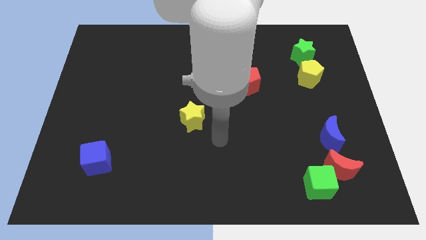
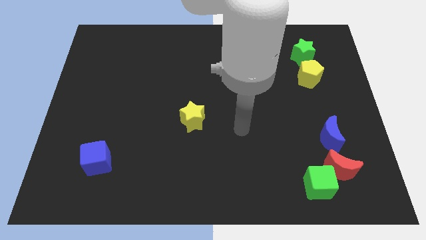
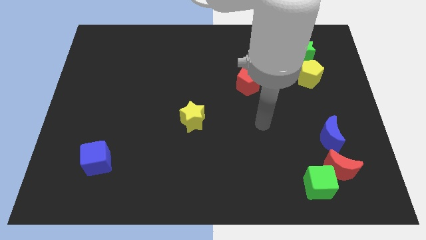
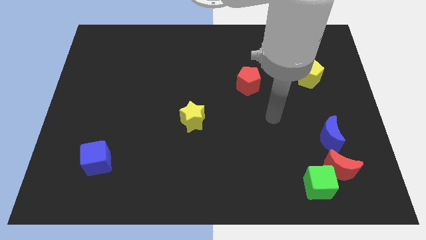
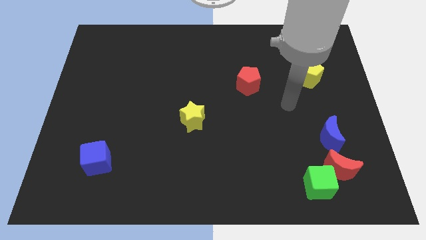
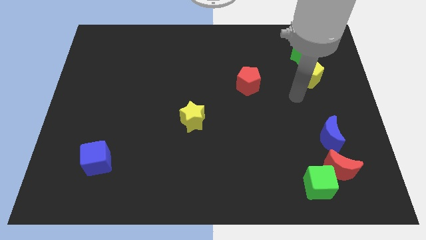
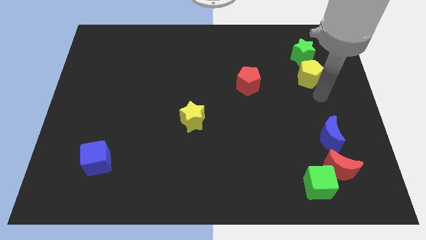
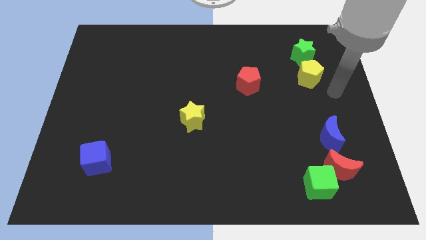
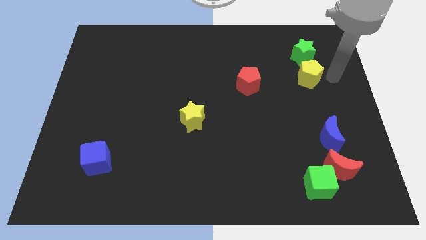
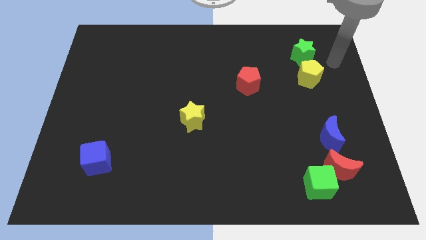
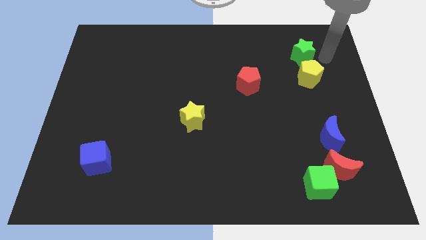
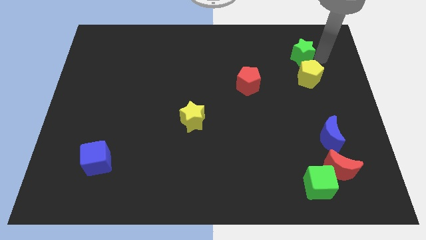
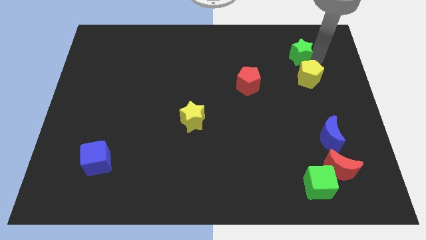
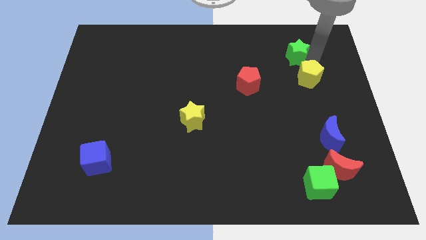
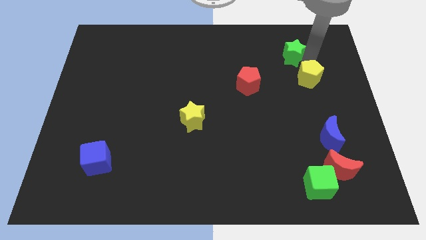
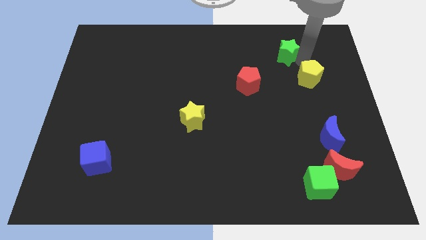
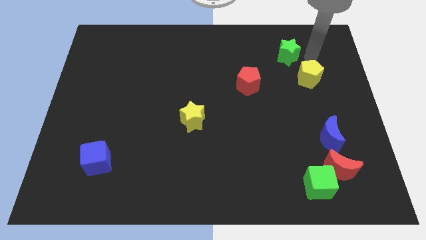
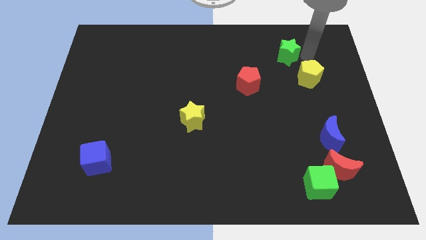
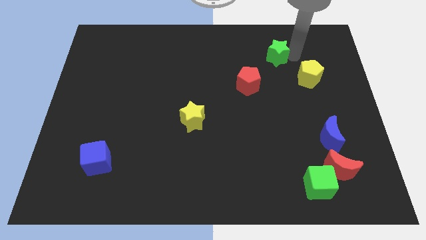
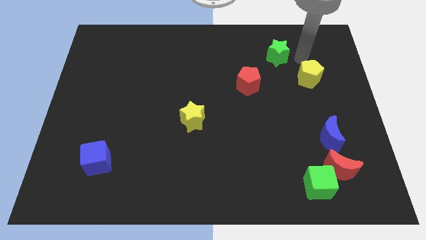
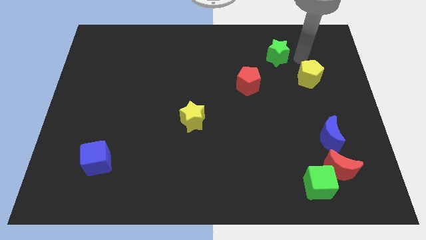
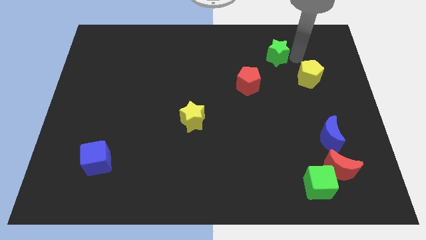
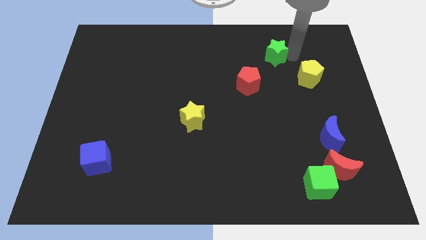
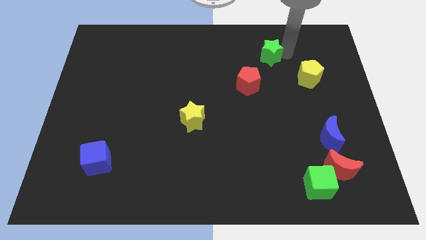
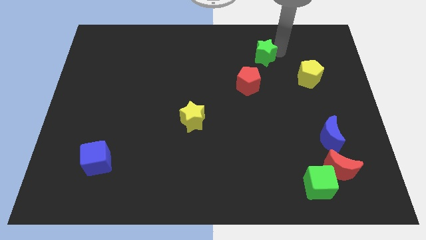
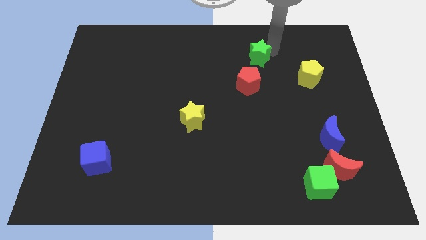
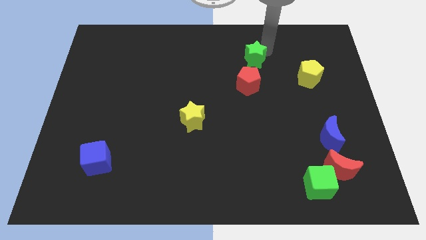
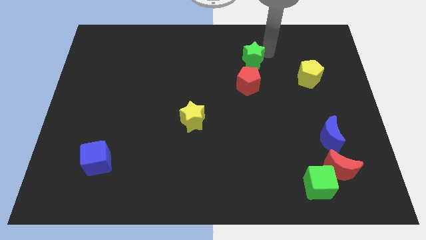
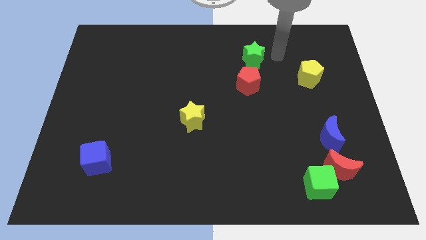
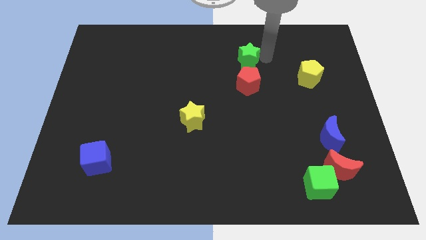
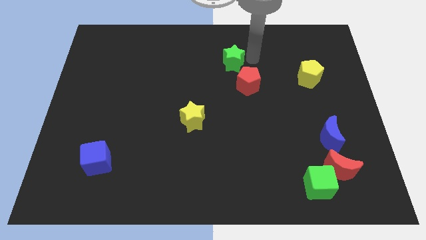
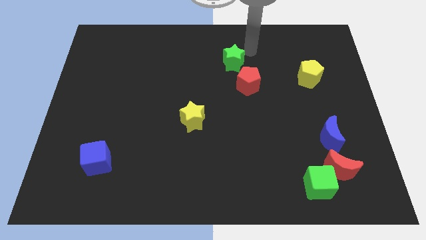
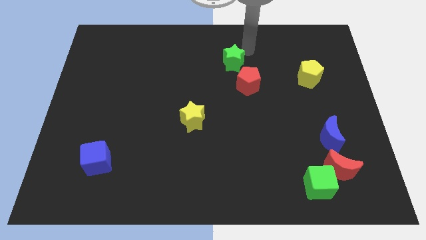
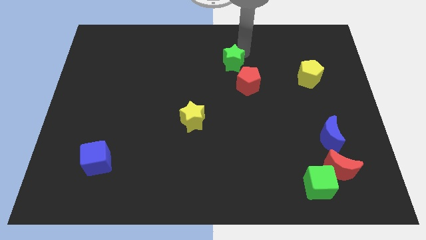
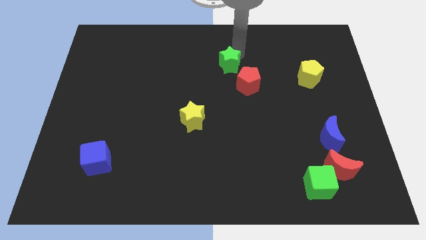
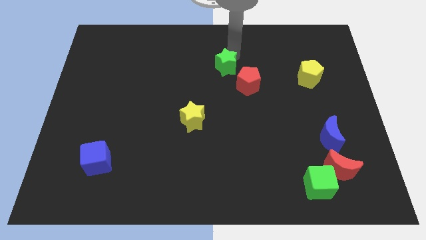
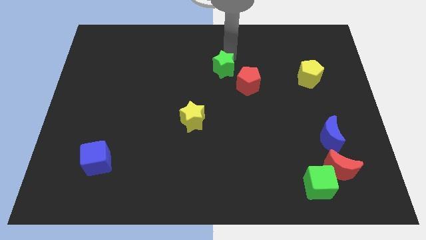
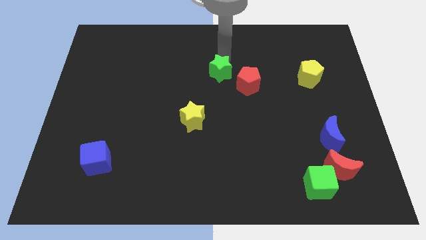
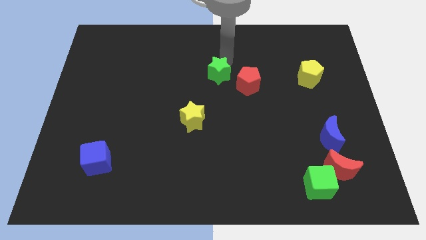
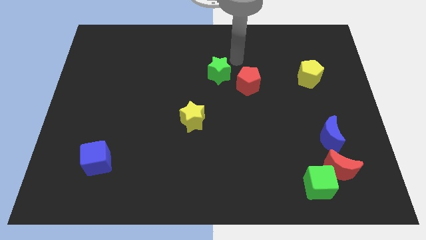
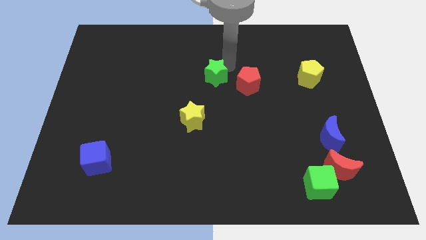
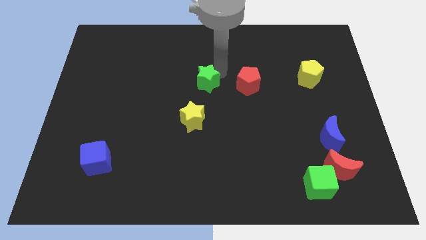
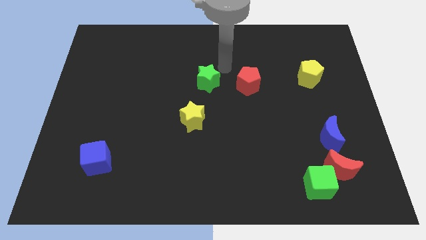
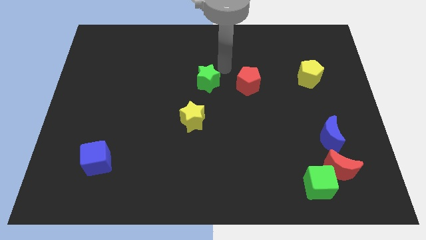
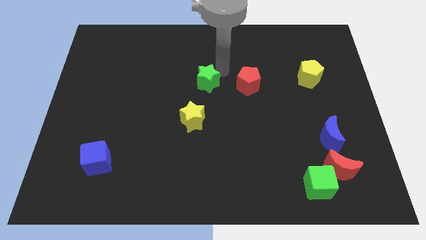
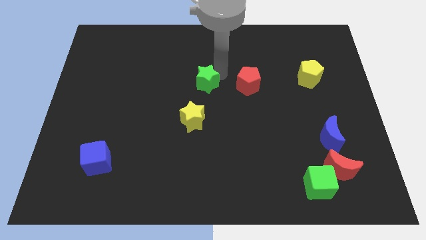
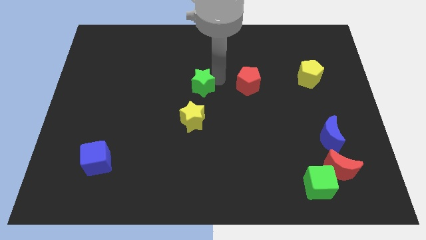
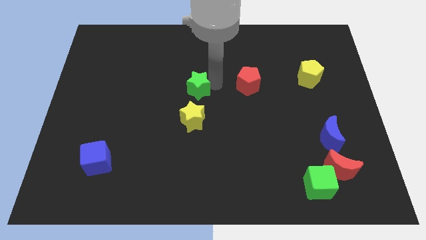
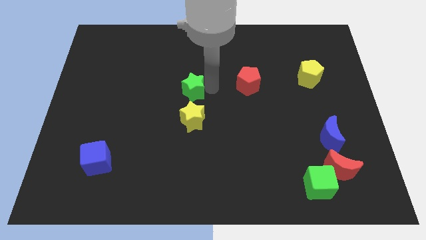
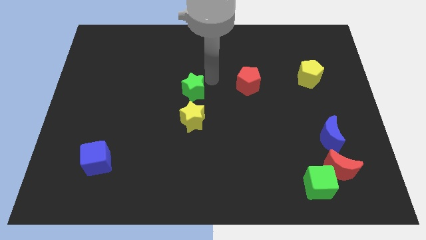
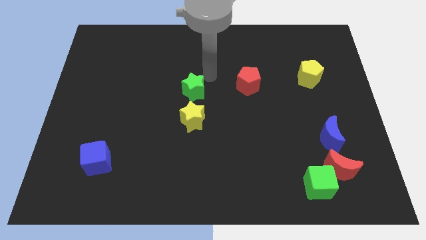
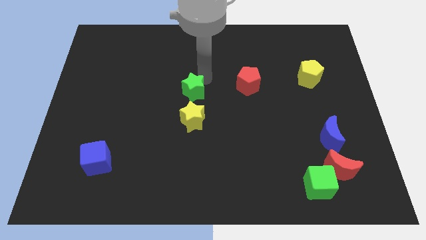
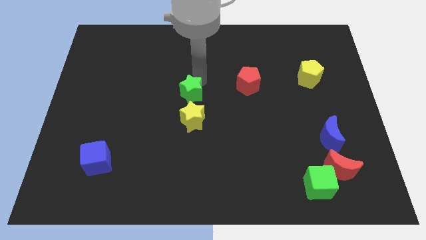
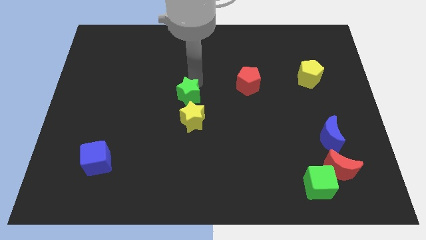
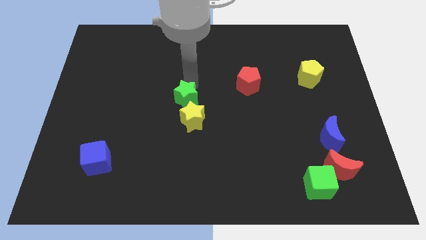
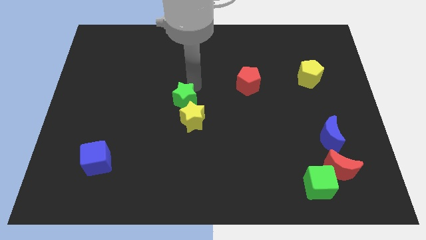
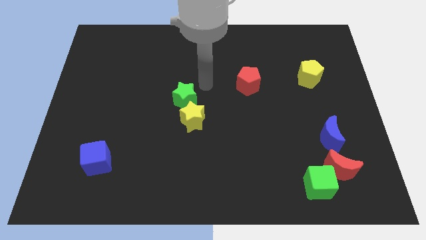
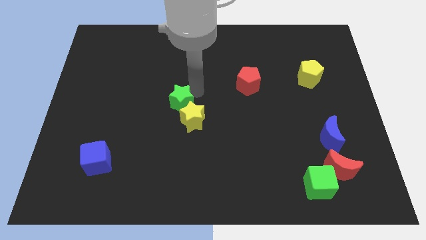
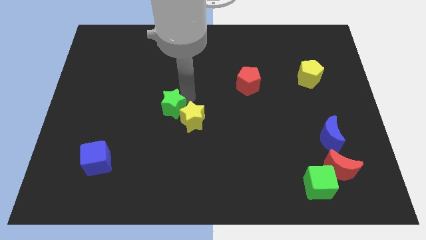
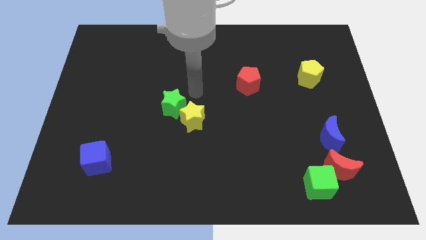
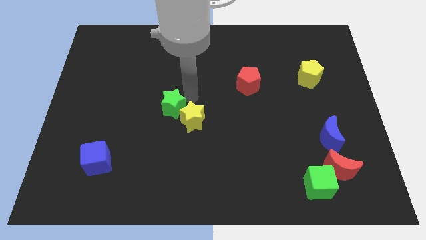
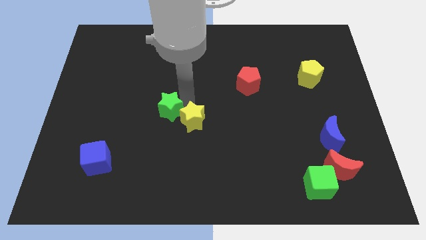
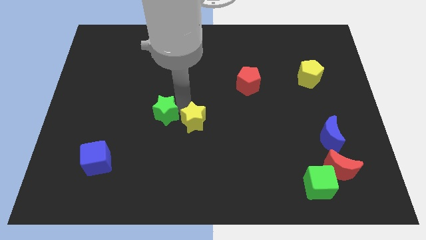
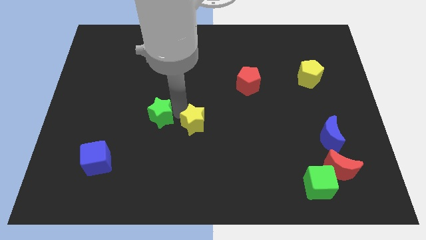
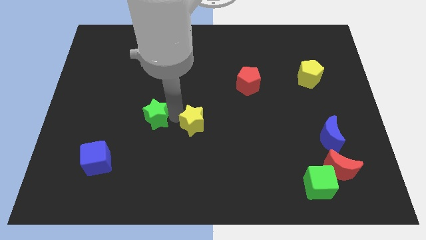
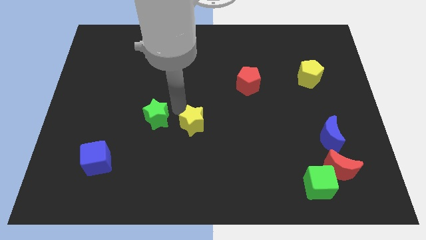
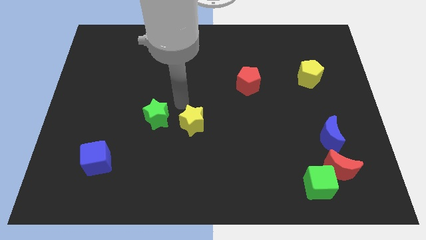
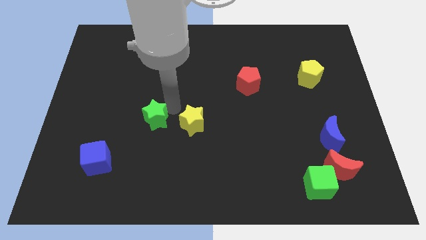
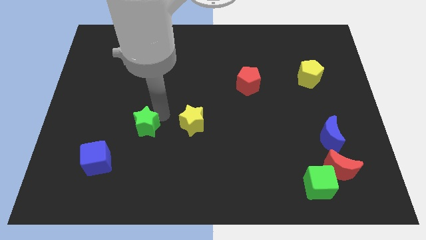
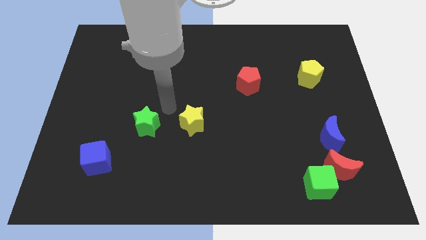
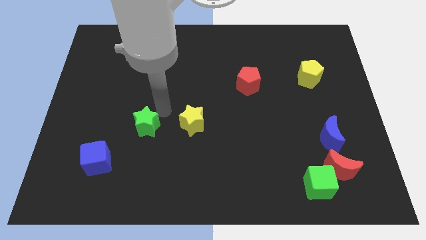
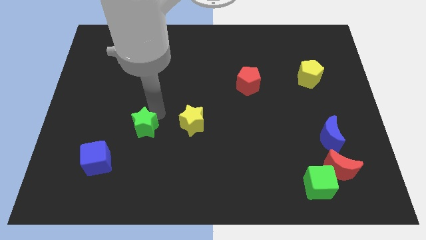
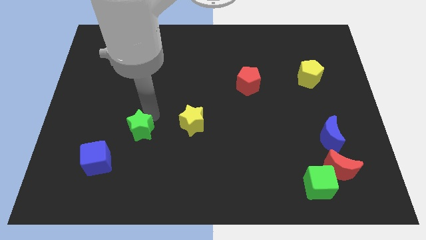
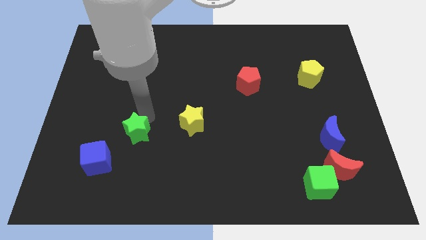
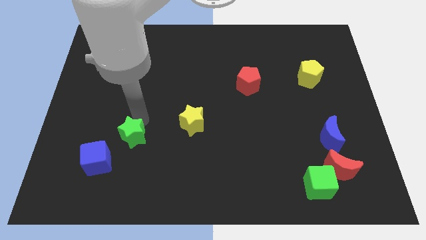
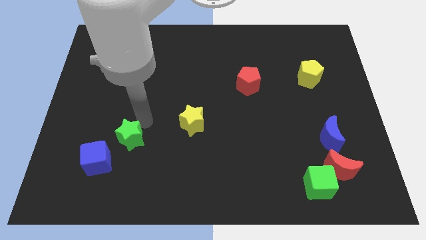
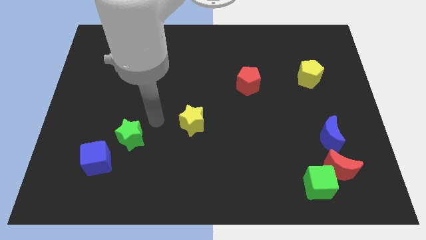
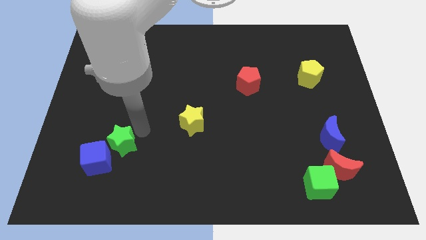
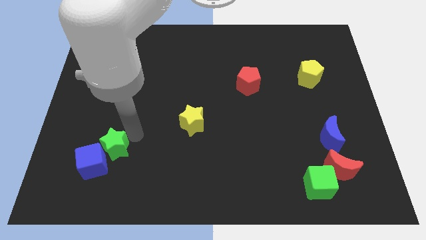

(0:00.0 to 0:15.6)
slide the green star next to the blue cube
